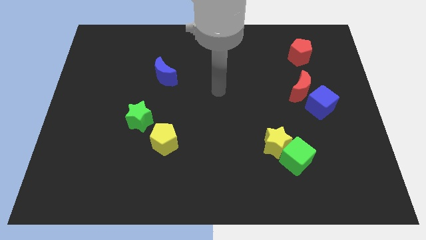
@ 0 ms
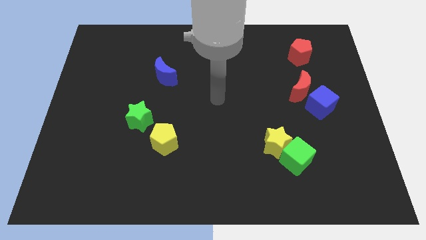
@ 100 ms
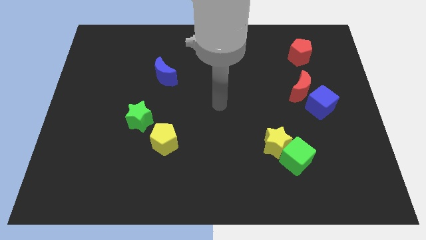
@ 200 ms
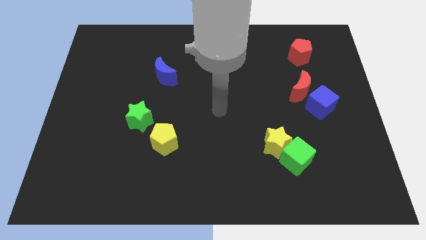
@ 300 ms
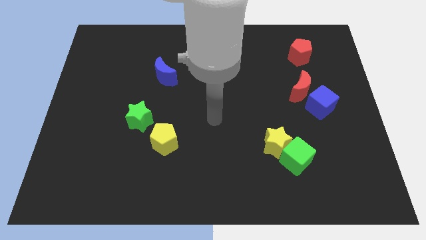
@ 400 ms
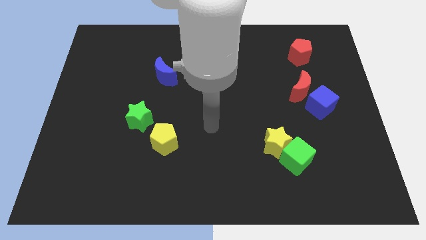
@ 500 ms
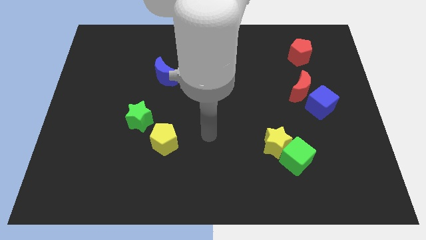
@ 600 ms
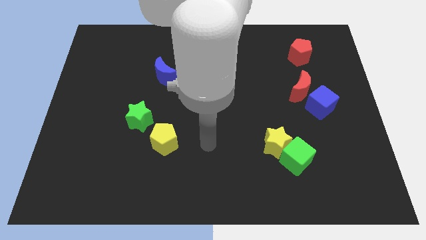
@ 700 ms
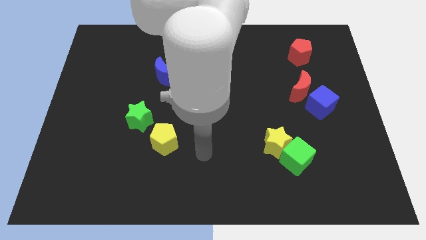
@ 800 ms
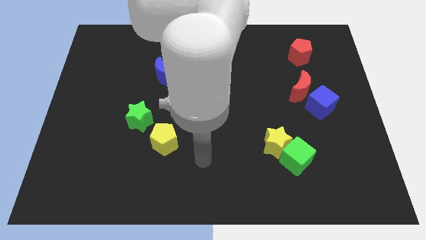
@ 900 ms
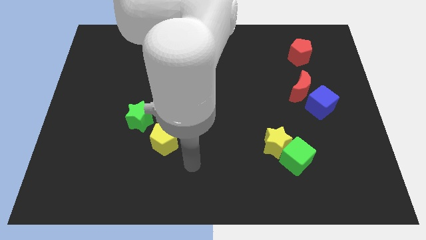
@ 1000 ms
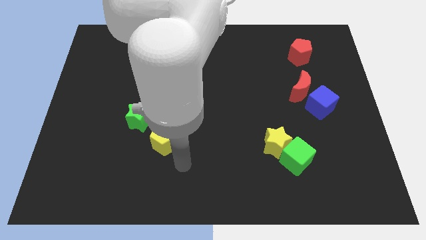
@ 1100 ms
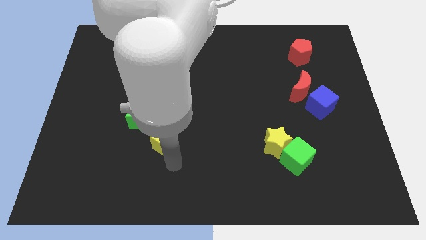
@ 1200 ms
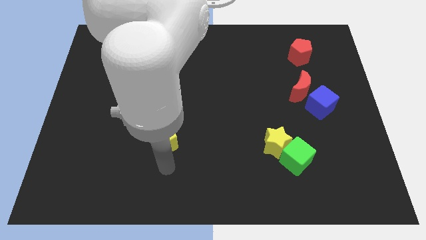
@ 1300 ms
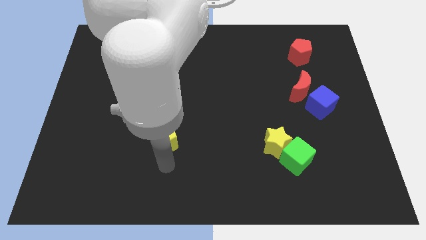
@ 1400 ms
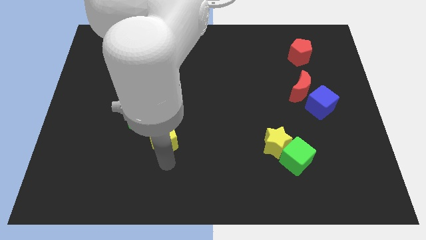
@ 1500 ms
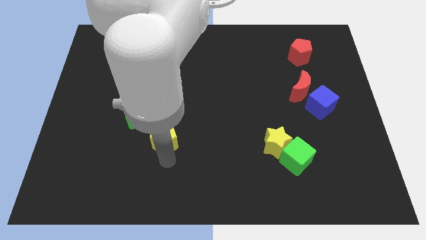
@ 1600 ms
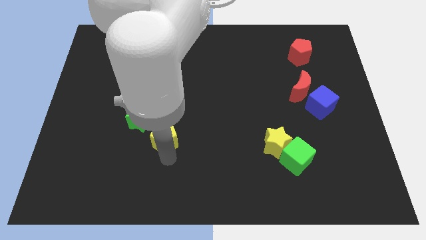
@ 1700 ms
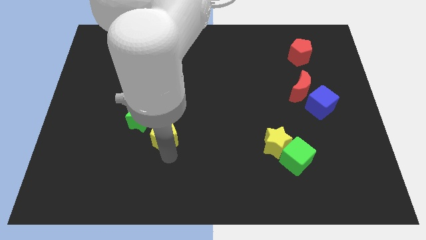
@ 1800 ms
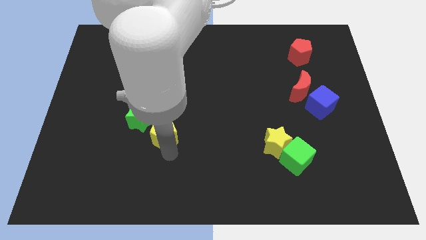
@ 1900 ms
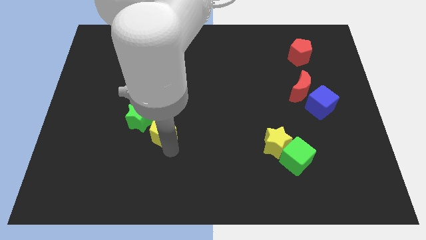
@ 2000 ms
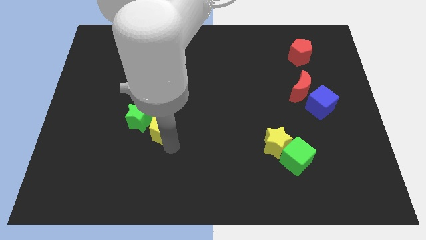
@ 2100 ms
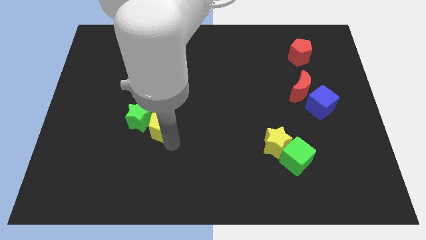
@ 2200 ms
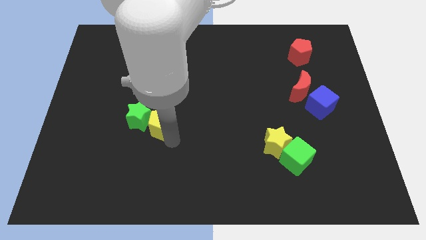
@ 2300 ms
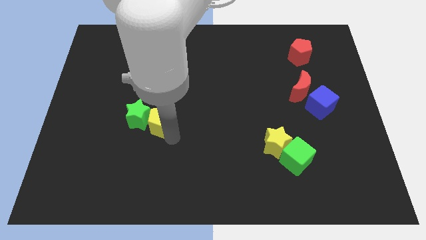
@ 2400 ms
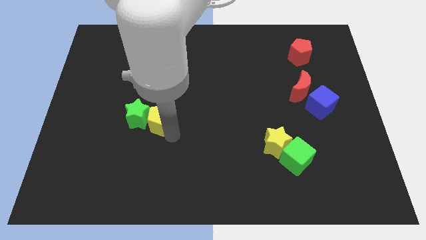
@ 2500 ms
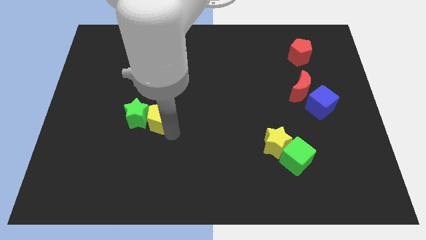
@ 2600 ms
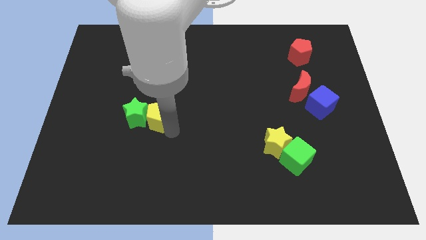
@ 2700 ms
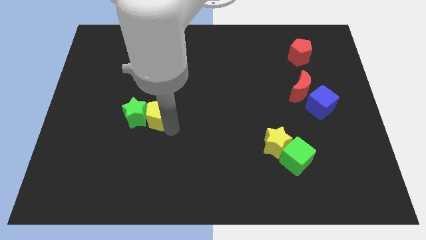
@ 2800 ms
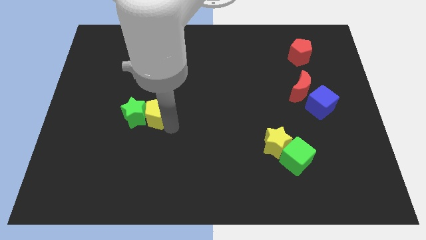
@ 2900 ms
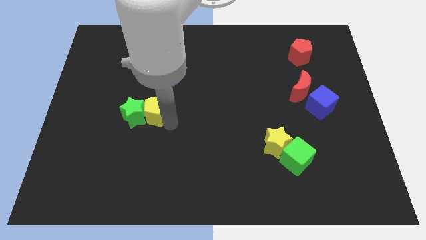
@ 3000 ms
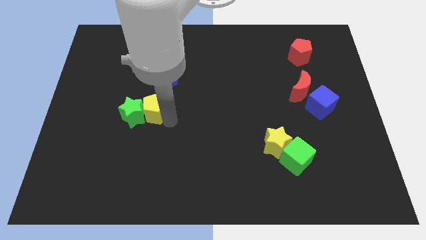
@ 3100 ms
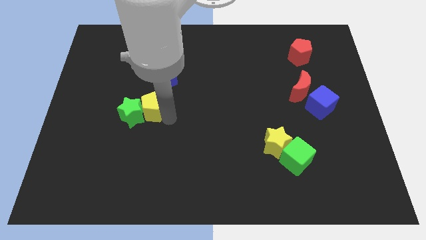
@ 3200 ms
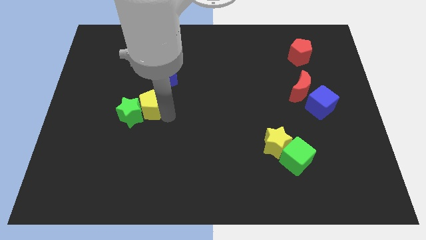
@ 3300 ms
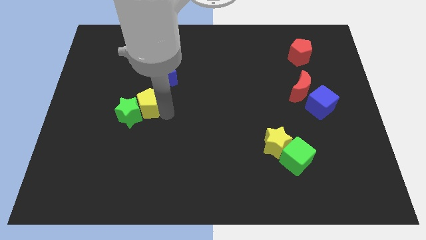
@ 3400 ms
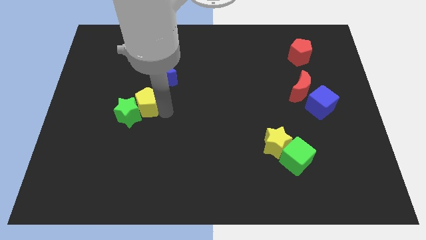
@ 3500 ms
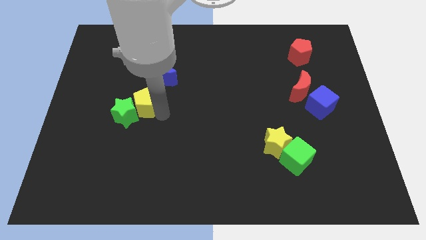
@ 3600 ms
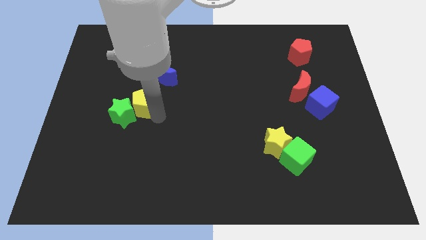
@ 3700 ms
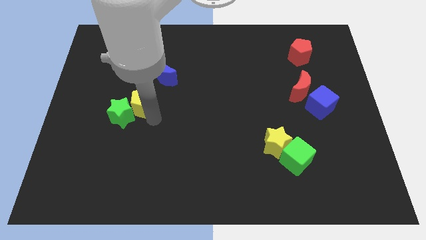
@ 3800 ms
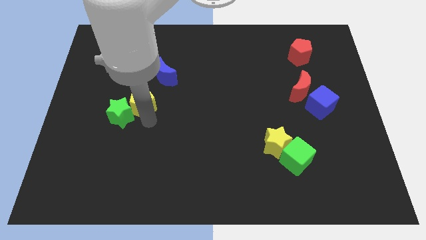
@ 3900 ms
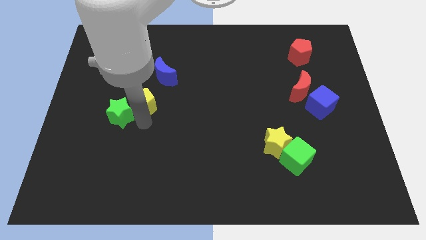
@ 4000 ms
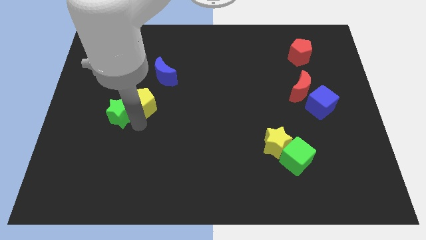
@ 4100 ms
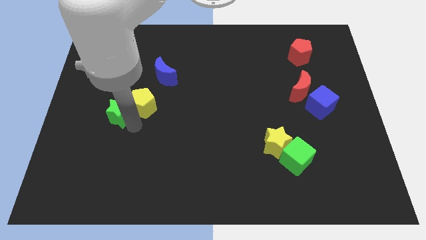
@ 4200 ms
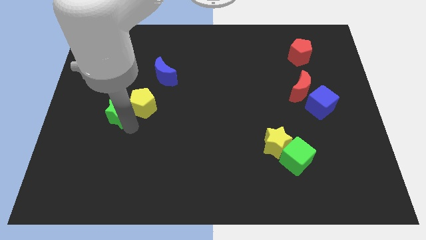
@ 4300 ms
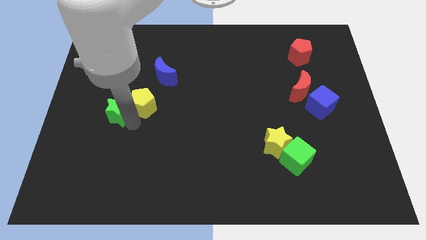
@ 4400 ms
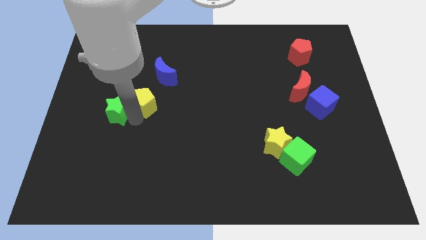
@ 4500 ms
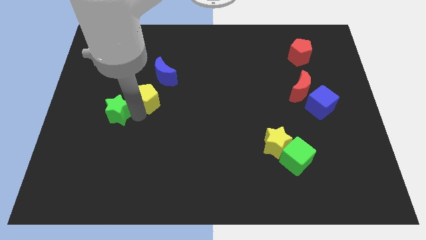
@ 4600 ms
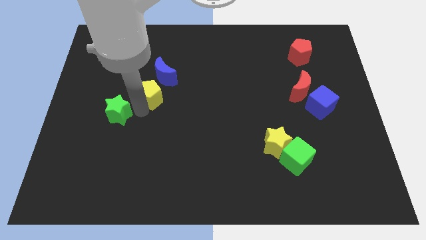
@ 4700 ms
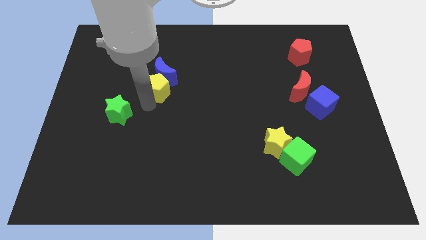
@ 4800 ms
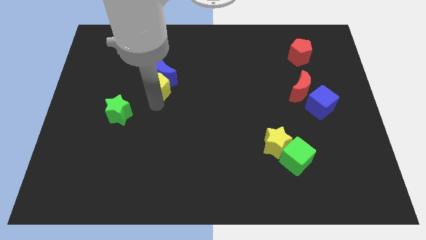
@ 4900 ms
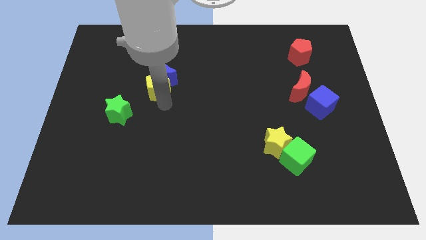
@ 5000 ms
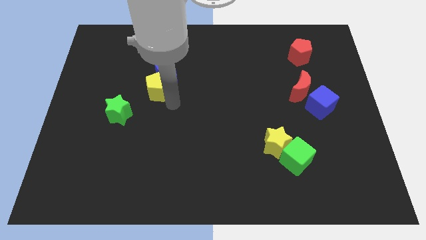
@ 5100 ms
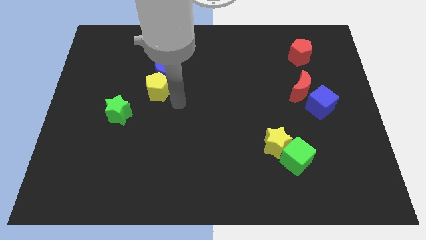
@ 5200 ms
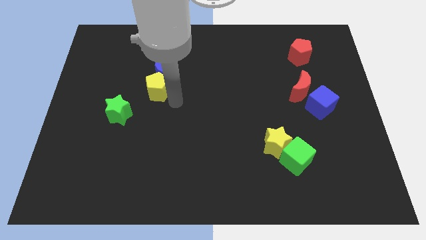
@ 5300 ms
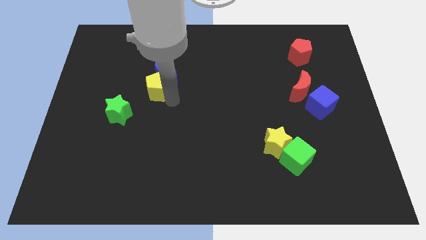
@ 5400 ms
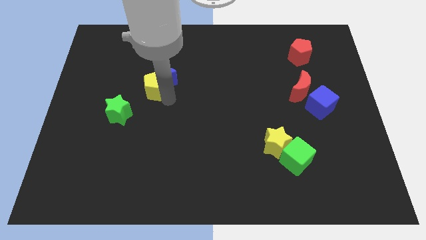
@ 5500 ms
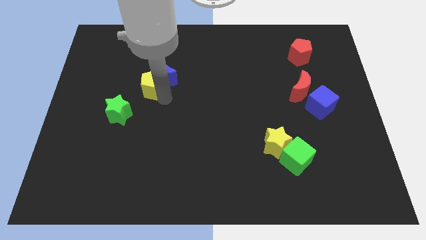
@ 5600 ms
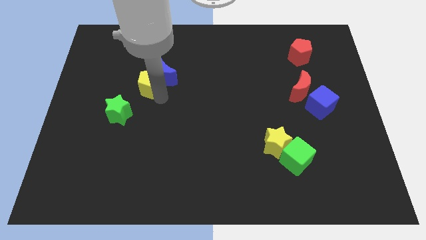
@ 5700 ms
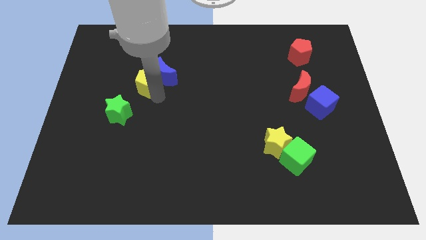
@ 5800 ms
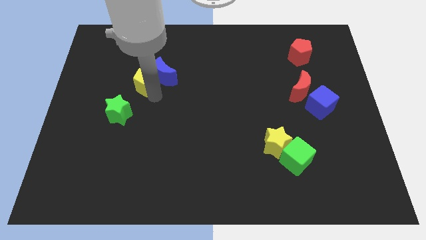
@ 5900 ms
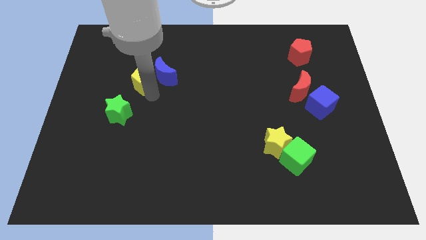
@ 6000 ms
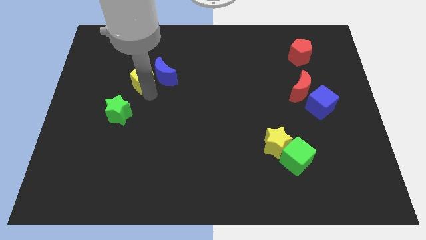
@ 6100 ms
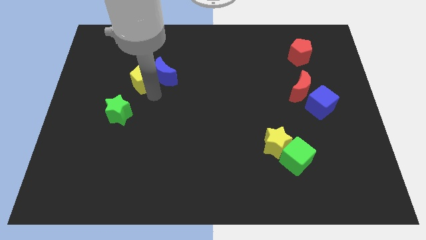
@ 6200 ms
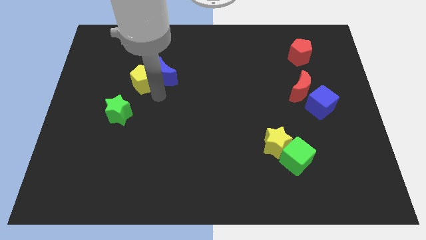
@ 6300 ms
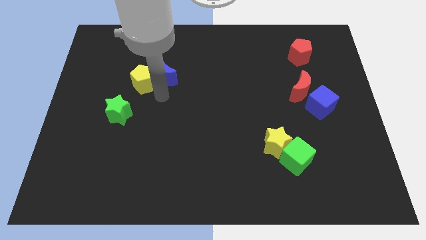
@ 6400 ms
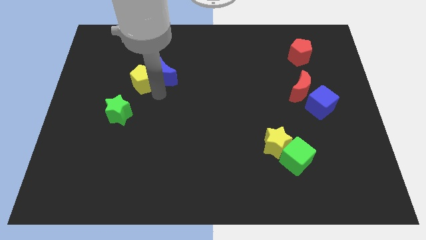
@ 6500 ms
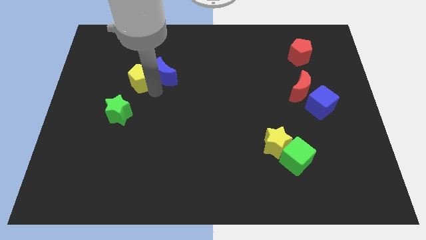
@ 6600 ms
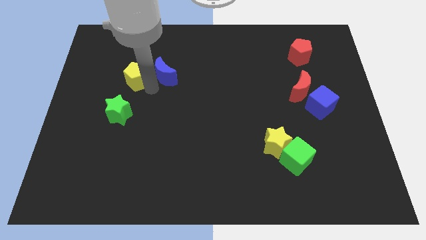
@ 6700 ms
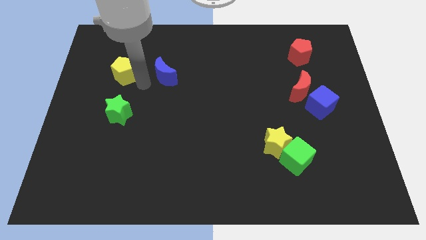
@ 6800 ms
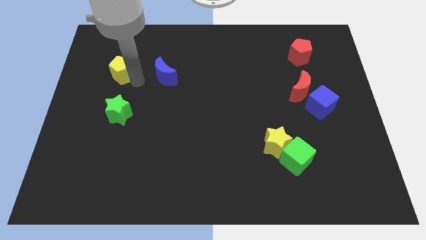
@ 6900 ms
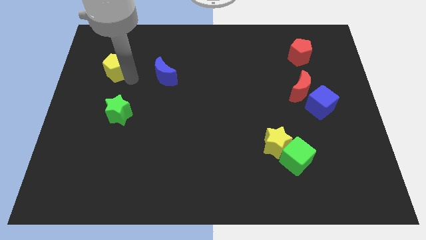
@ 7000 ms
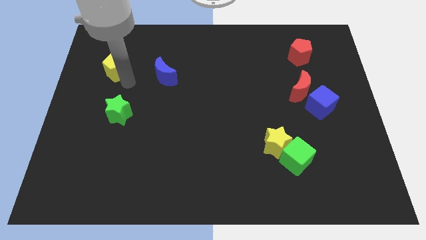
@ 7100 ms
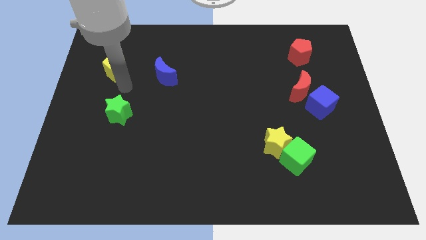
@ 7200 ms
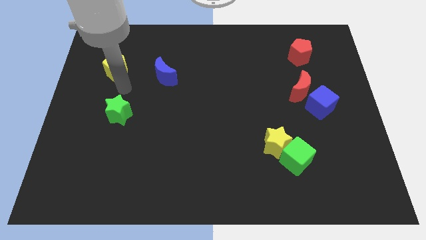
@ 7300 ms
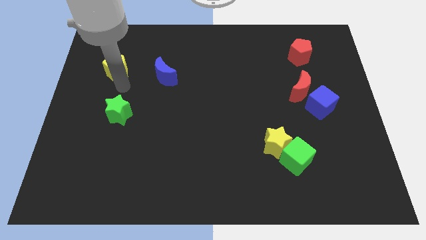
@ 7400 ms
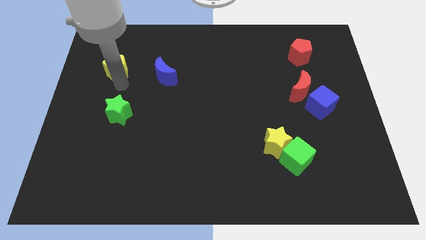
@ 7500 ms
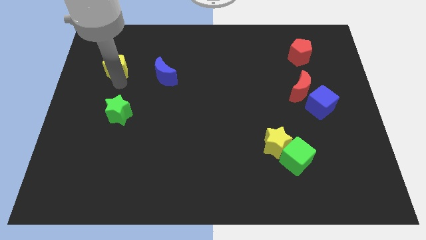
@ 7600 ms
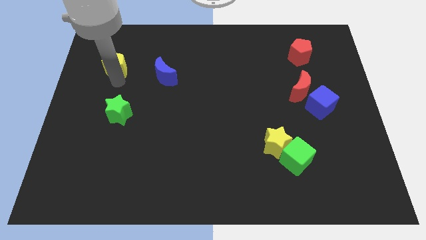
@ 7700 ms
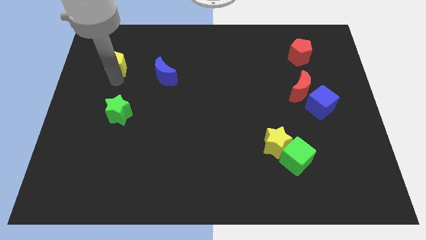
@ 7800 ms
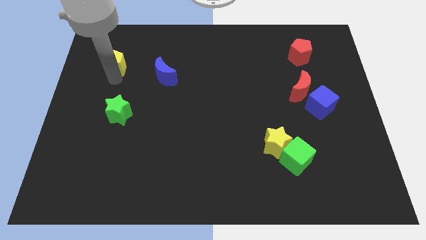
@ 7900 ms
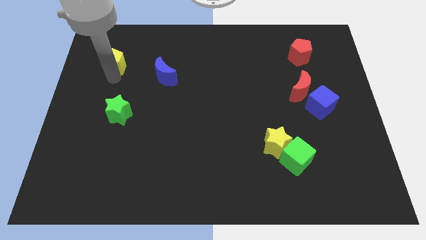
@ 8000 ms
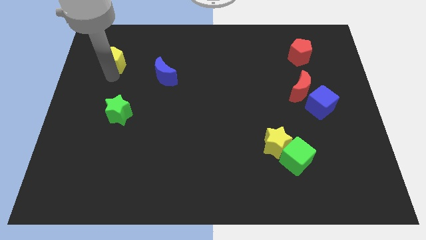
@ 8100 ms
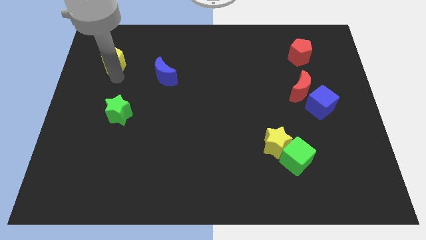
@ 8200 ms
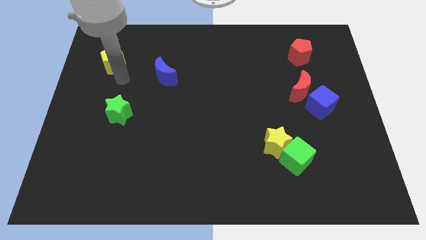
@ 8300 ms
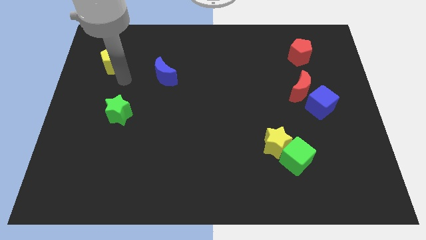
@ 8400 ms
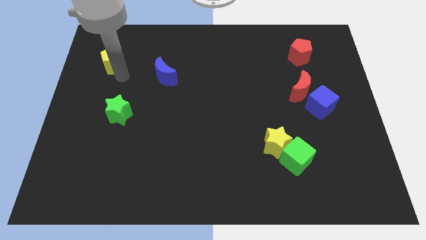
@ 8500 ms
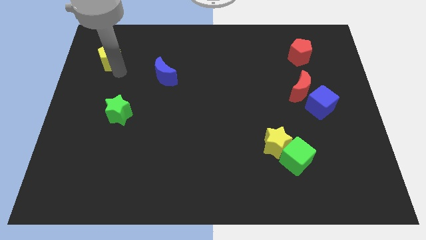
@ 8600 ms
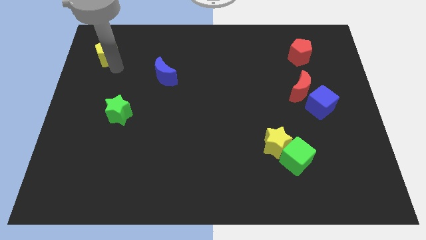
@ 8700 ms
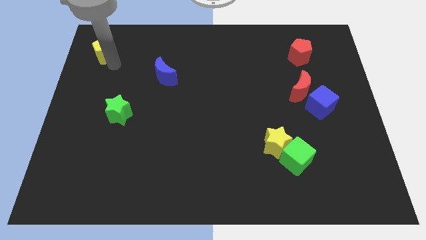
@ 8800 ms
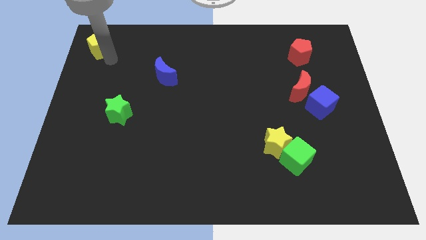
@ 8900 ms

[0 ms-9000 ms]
slide the yellow pentagon to the top left
